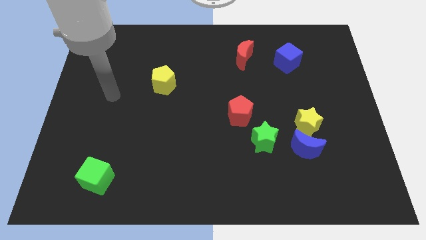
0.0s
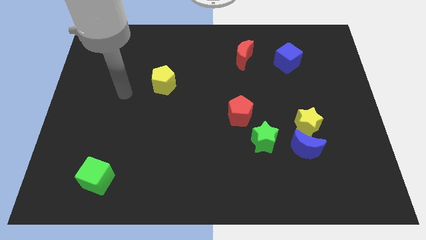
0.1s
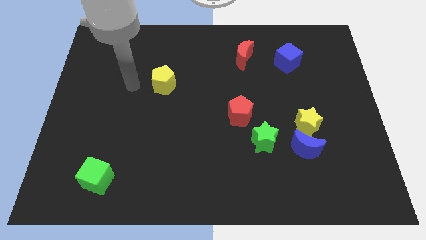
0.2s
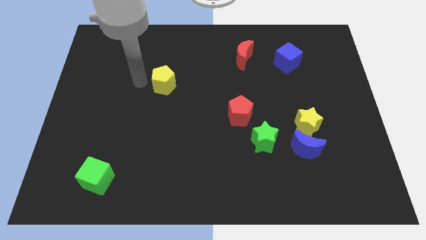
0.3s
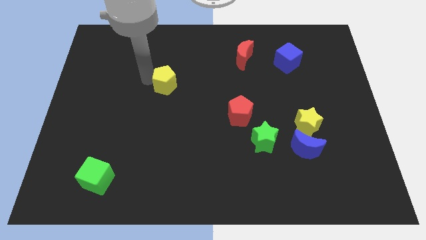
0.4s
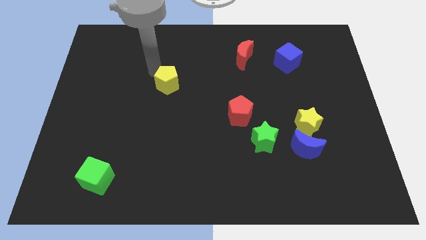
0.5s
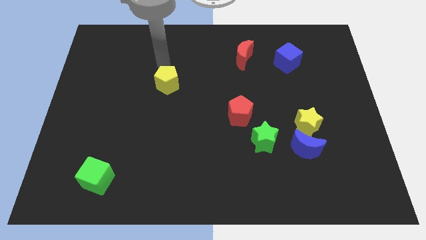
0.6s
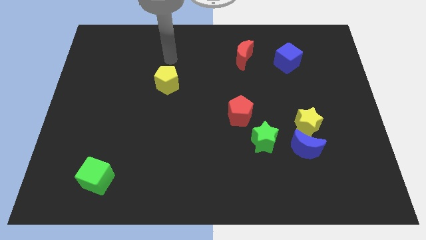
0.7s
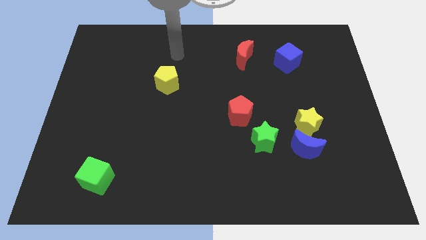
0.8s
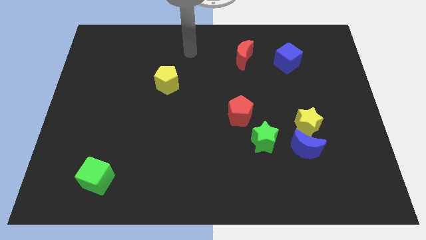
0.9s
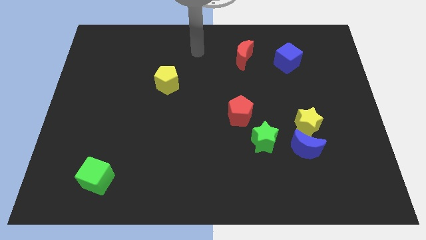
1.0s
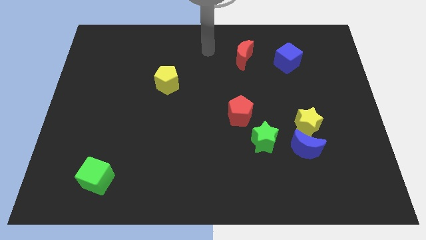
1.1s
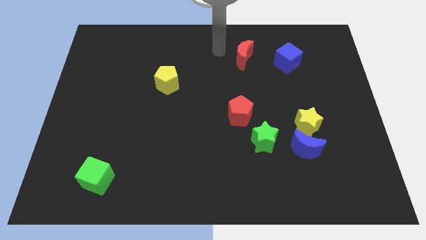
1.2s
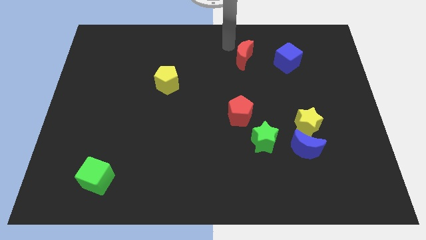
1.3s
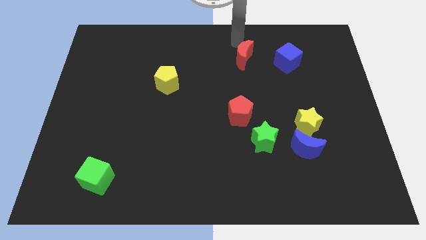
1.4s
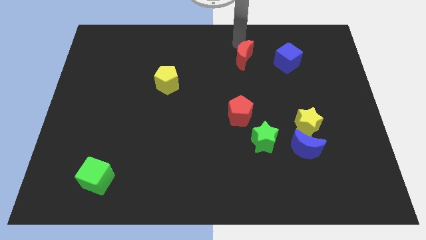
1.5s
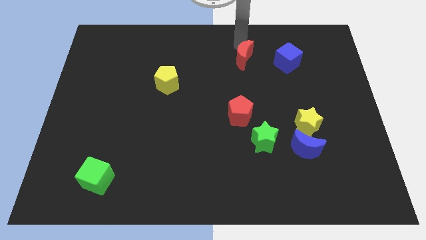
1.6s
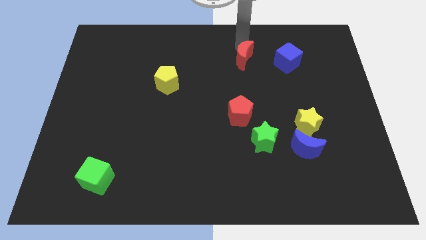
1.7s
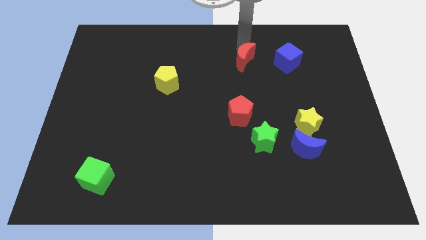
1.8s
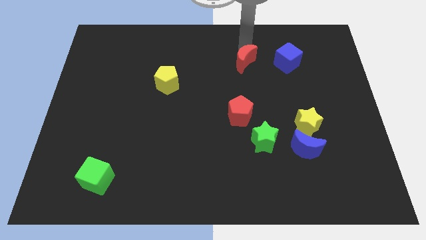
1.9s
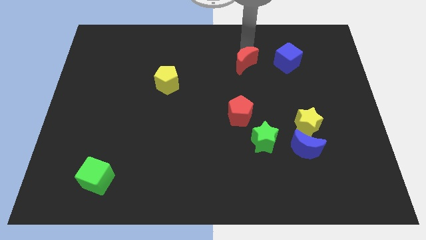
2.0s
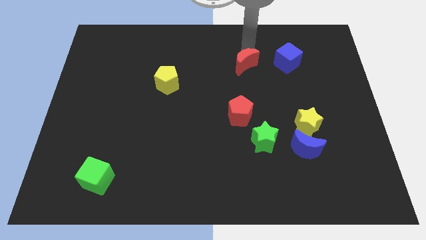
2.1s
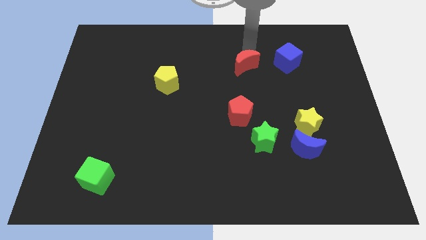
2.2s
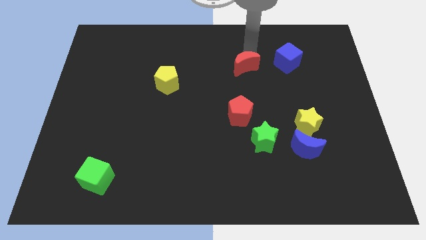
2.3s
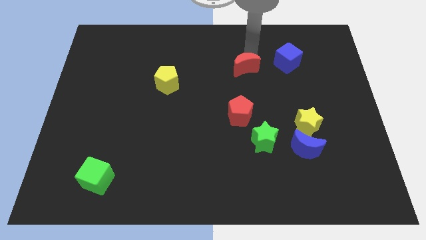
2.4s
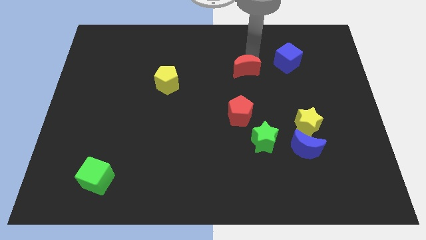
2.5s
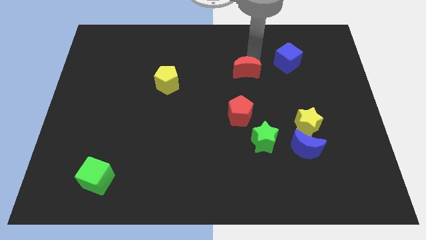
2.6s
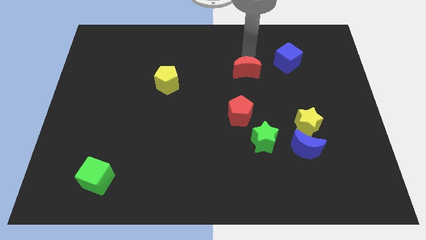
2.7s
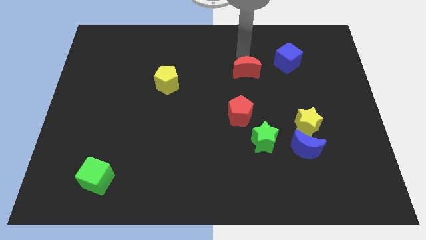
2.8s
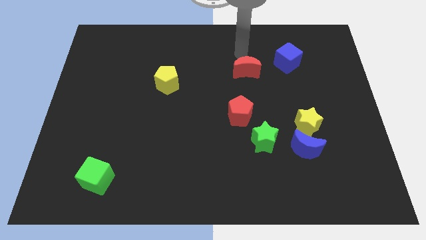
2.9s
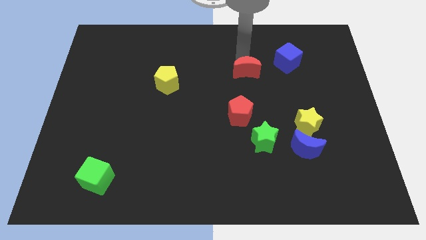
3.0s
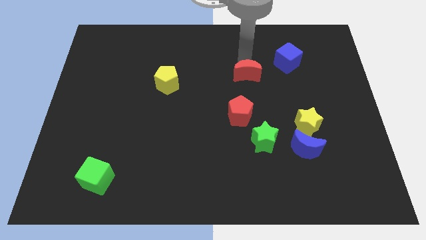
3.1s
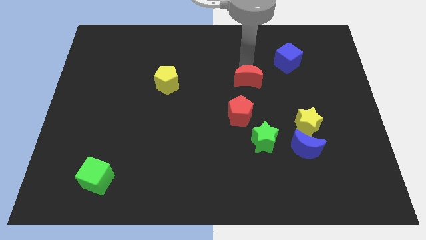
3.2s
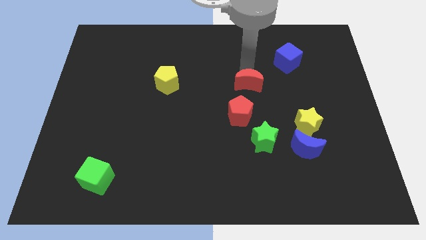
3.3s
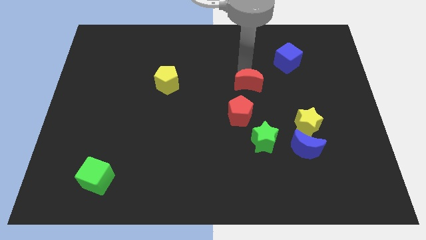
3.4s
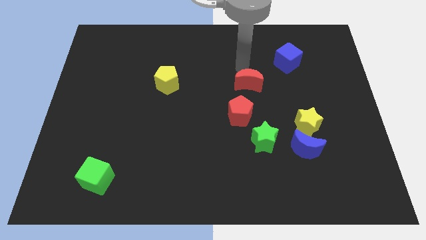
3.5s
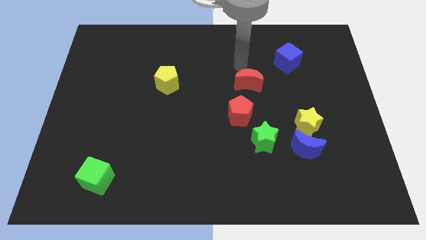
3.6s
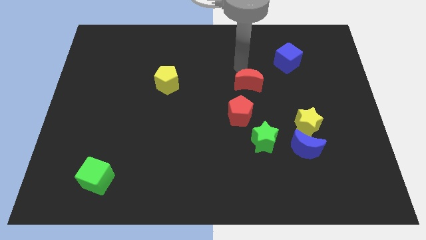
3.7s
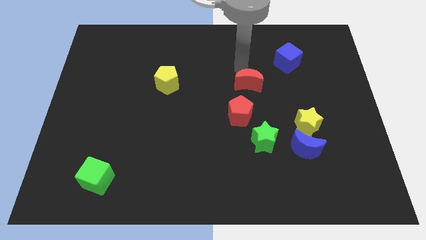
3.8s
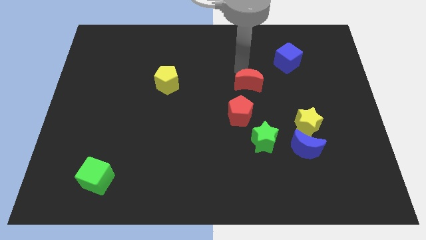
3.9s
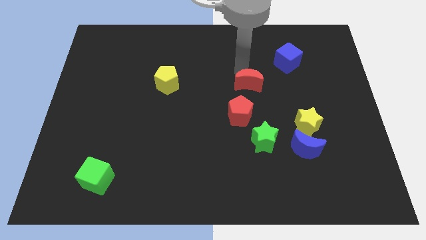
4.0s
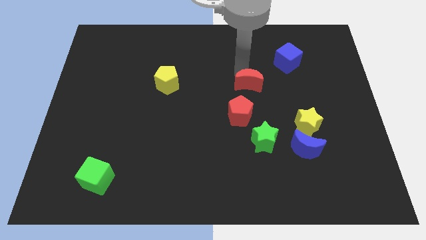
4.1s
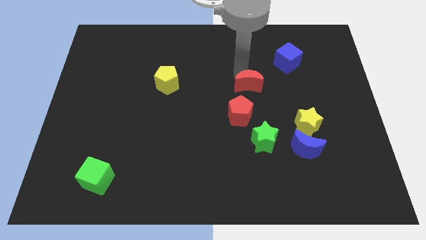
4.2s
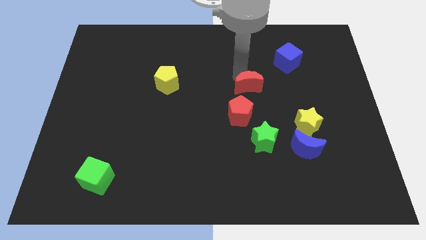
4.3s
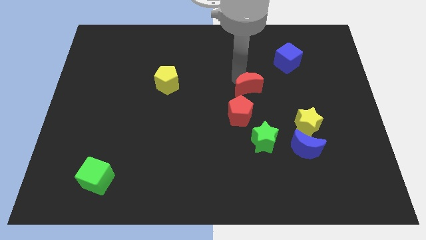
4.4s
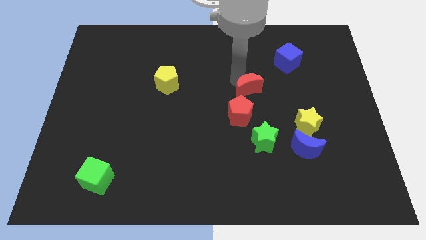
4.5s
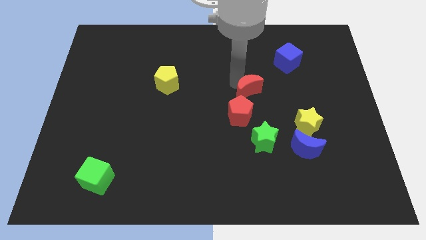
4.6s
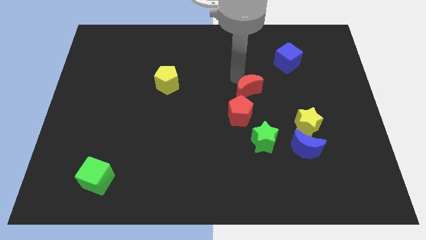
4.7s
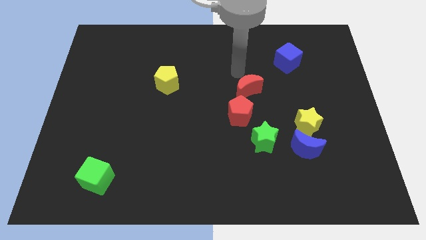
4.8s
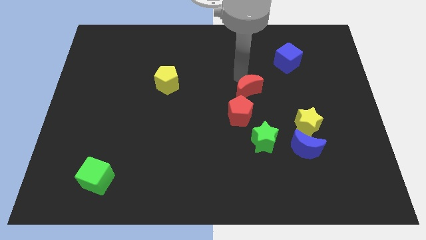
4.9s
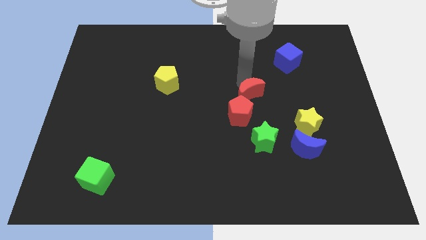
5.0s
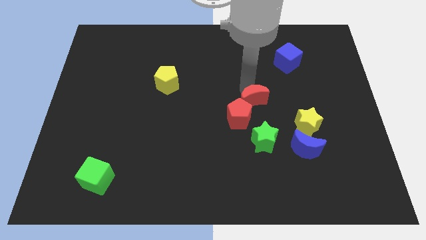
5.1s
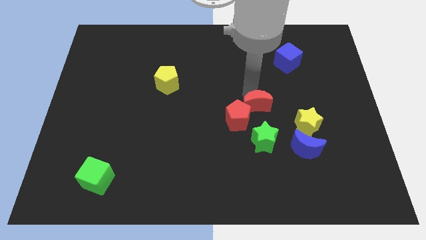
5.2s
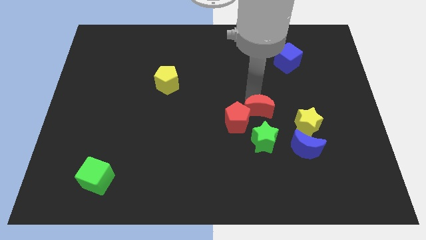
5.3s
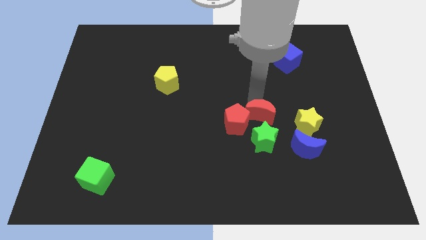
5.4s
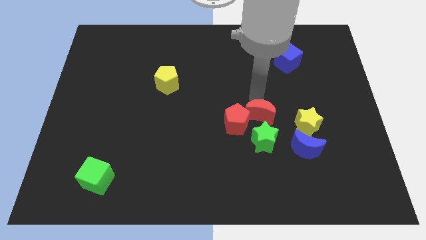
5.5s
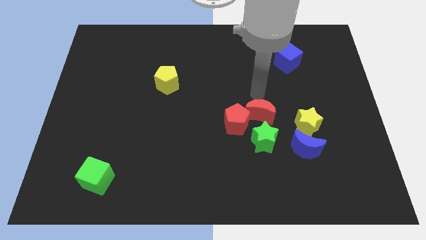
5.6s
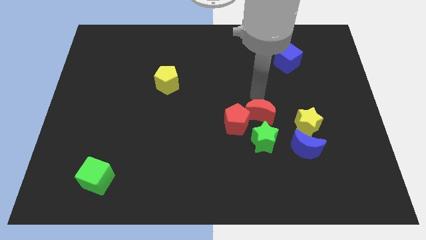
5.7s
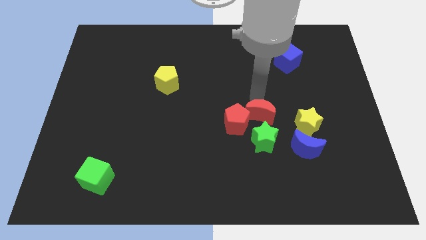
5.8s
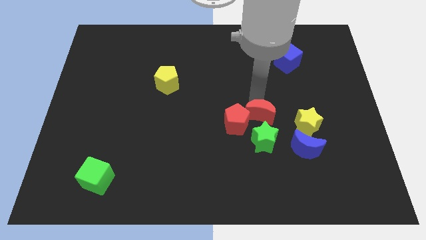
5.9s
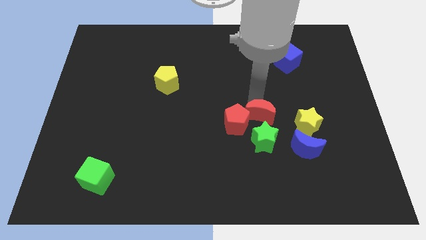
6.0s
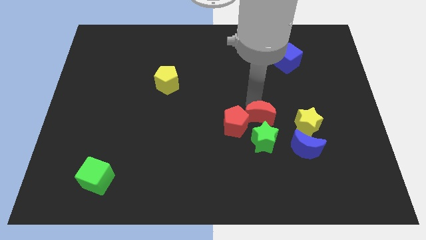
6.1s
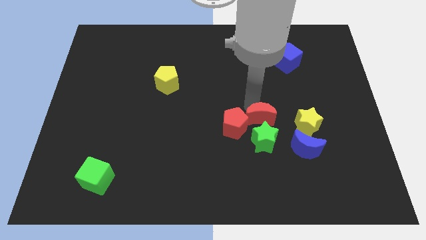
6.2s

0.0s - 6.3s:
move the red moon to the green star

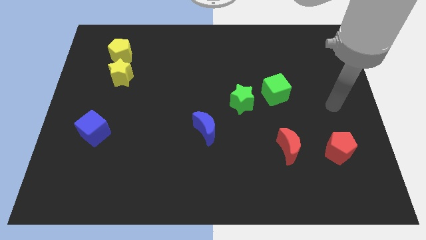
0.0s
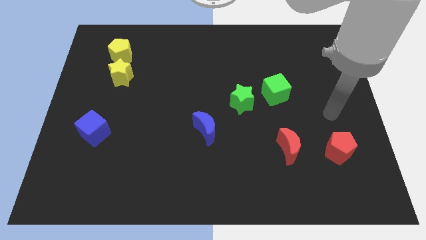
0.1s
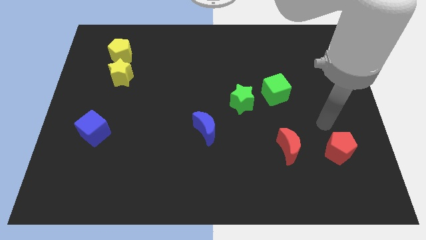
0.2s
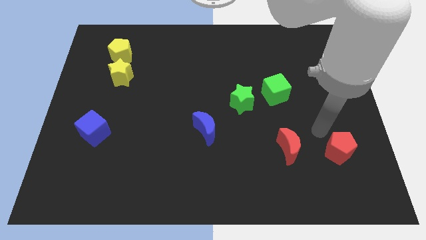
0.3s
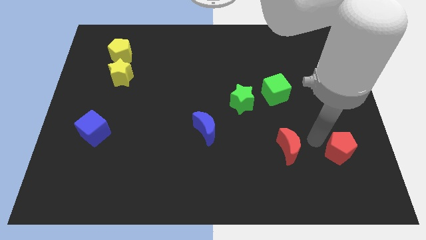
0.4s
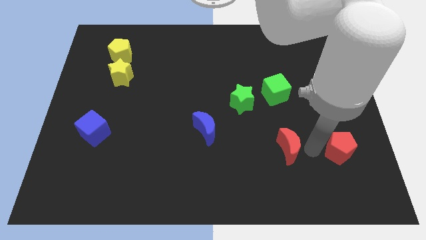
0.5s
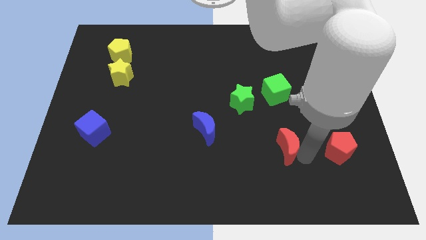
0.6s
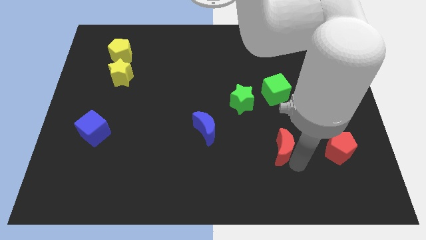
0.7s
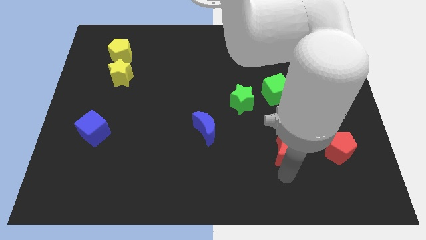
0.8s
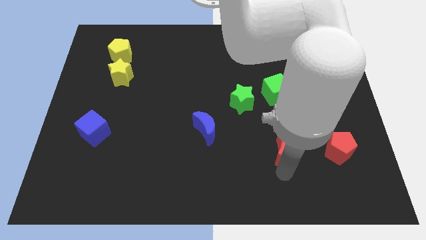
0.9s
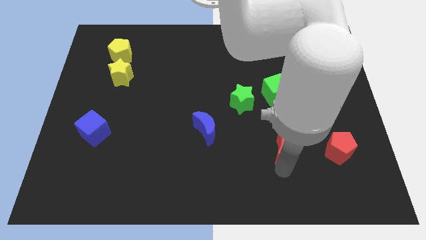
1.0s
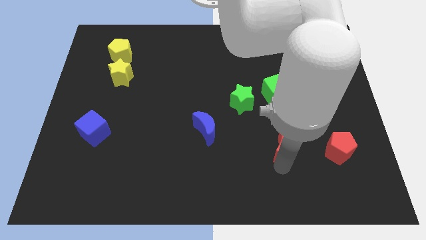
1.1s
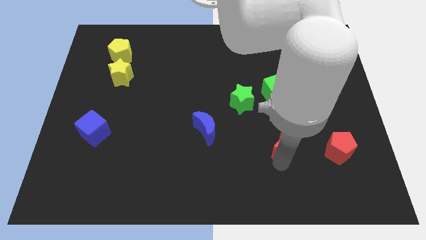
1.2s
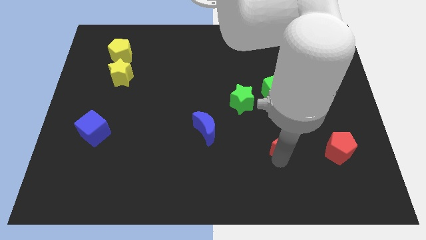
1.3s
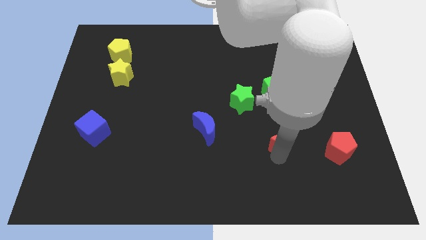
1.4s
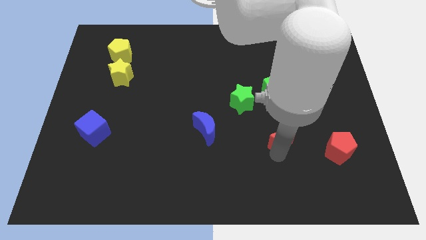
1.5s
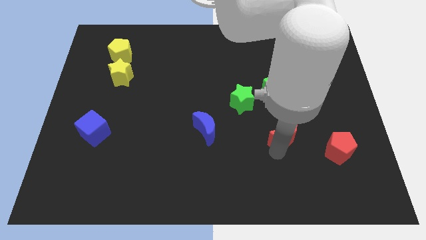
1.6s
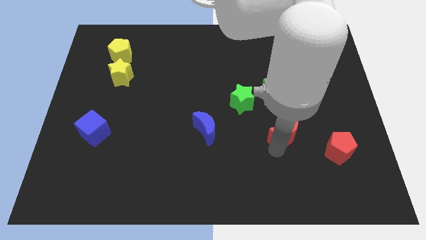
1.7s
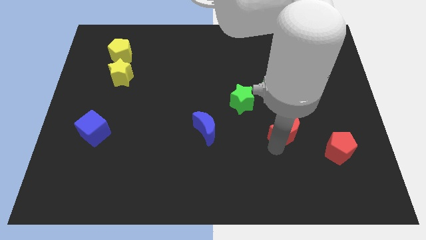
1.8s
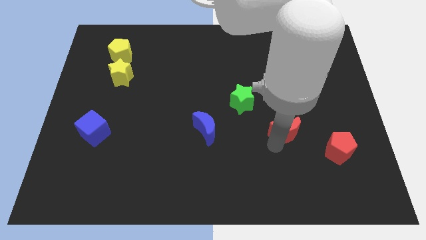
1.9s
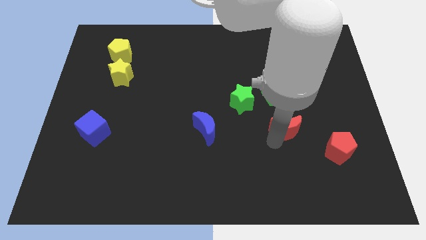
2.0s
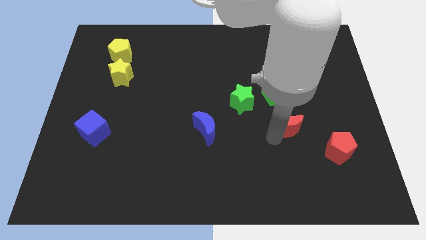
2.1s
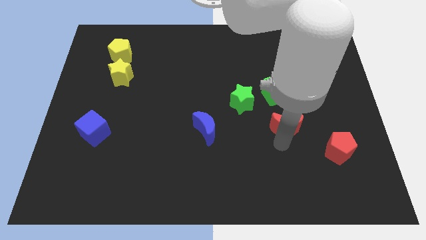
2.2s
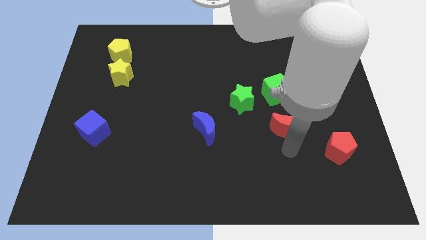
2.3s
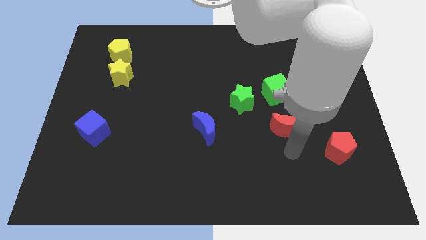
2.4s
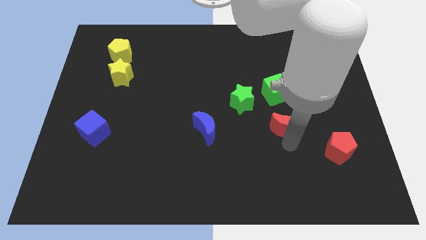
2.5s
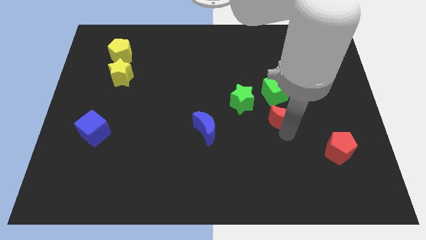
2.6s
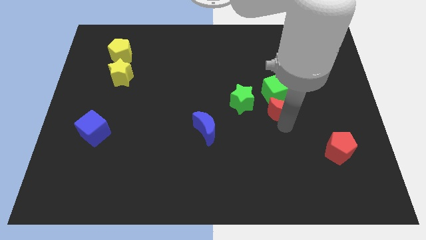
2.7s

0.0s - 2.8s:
push the red moon next to the green cube
